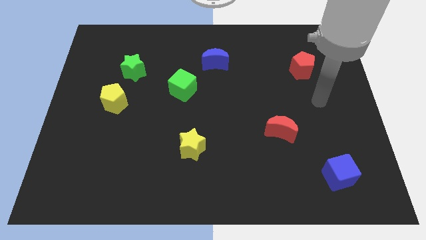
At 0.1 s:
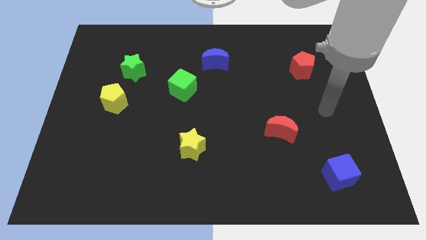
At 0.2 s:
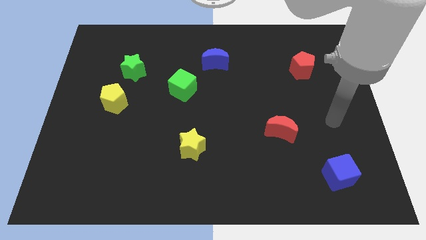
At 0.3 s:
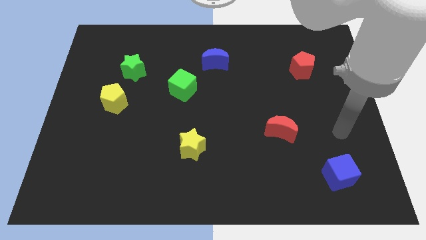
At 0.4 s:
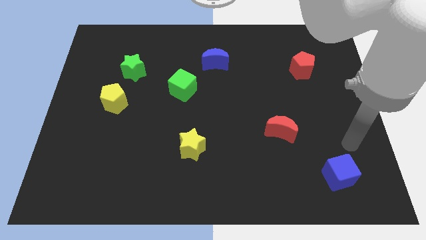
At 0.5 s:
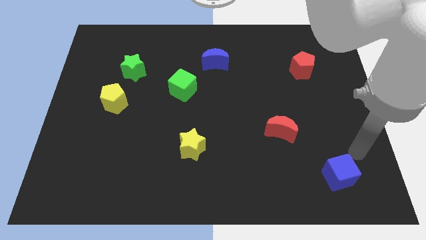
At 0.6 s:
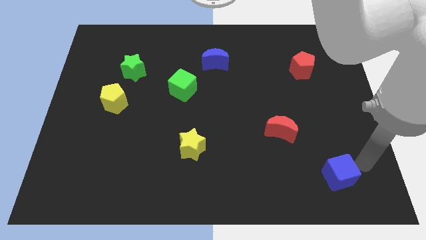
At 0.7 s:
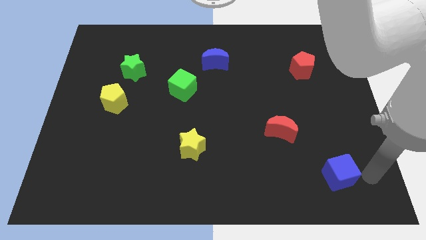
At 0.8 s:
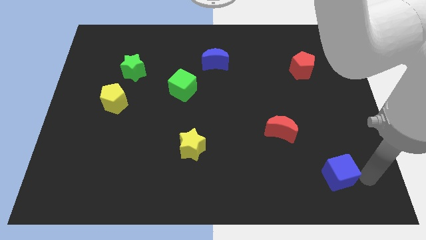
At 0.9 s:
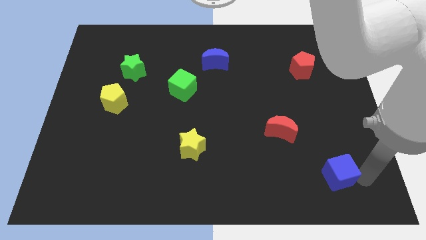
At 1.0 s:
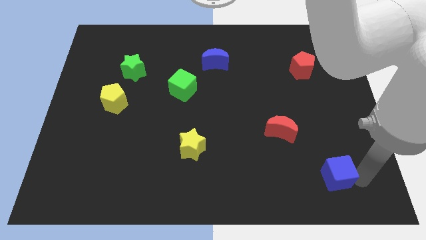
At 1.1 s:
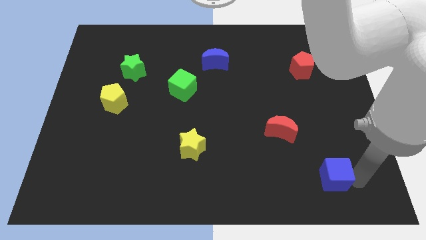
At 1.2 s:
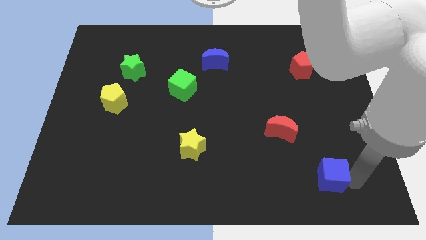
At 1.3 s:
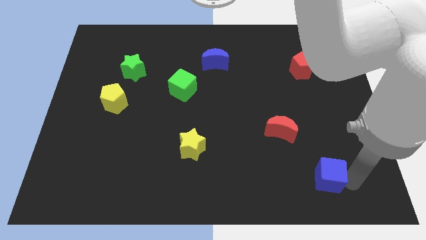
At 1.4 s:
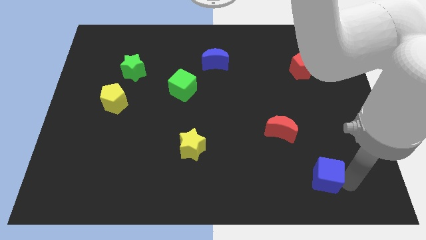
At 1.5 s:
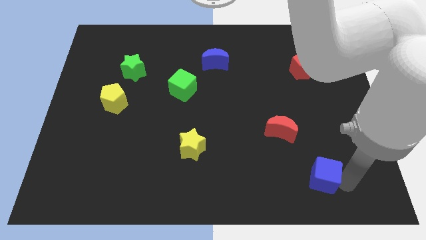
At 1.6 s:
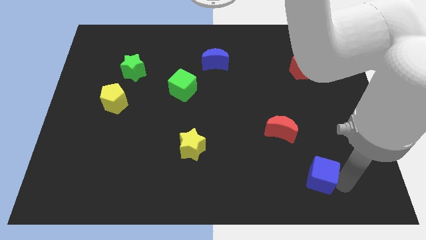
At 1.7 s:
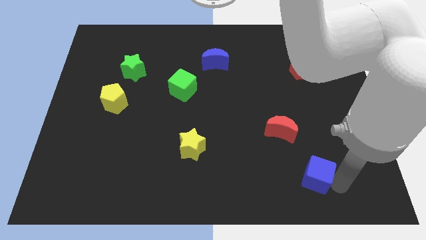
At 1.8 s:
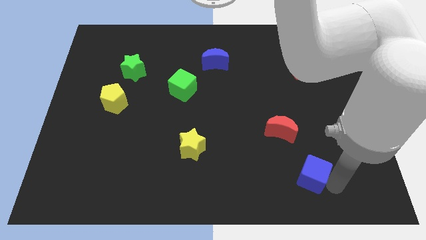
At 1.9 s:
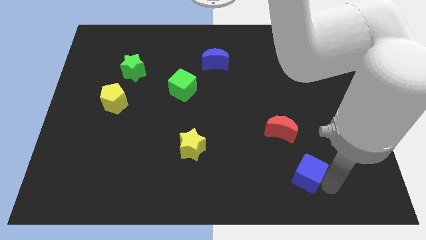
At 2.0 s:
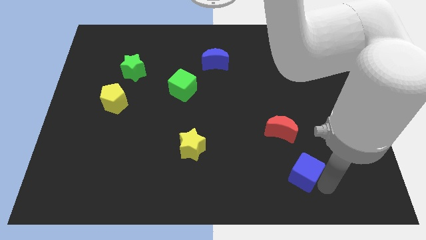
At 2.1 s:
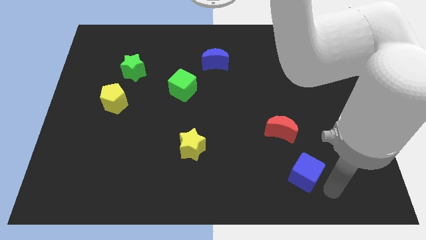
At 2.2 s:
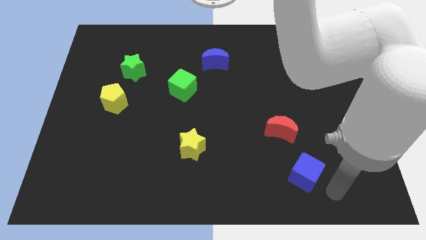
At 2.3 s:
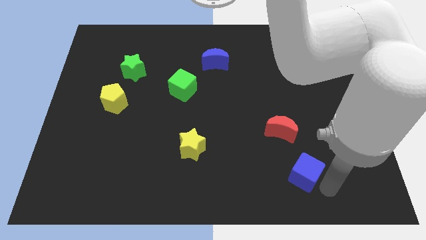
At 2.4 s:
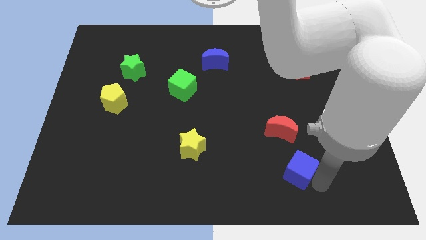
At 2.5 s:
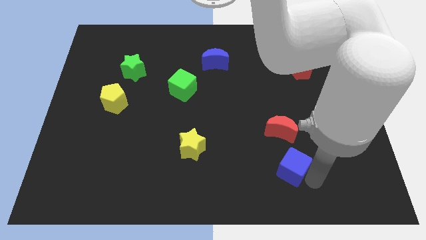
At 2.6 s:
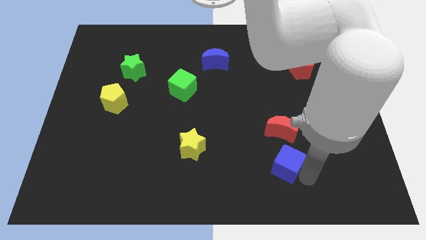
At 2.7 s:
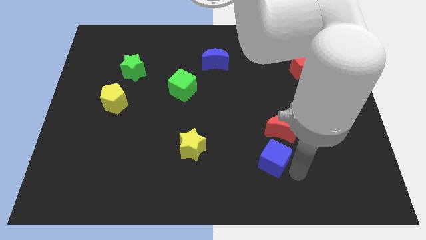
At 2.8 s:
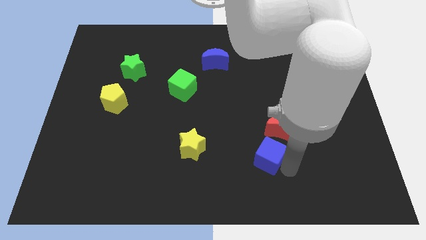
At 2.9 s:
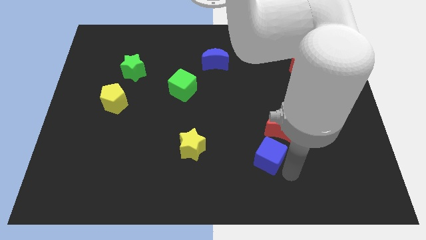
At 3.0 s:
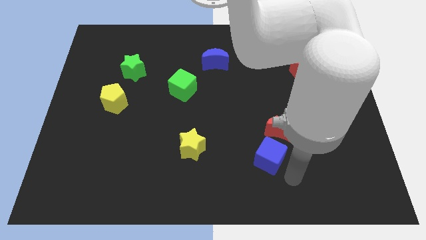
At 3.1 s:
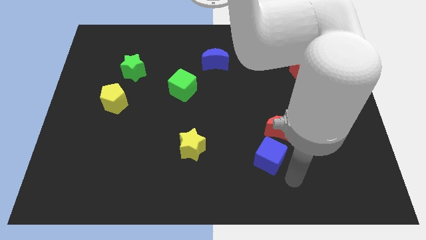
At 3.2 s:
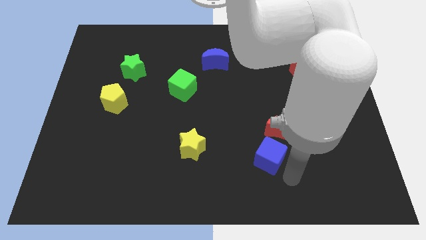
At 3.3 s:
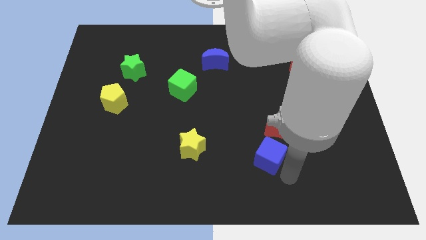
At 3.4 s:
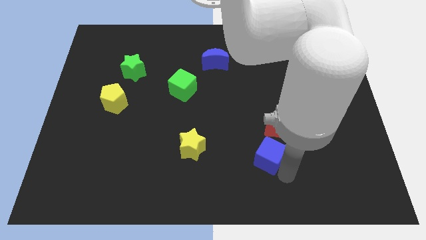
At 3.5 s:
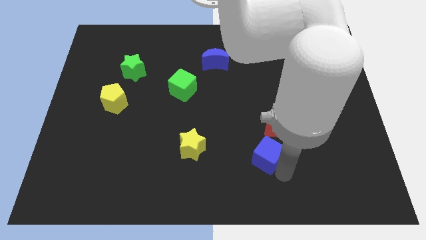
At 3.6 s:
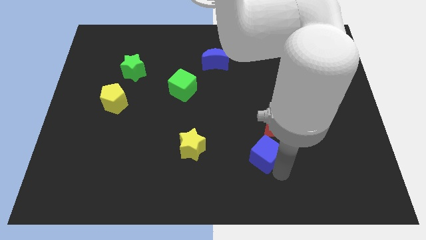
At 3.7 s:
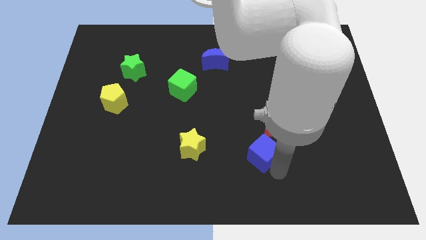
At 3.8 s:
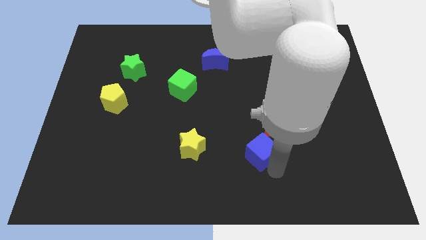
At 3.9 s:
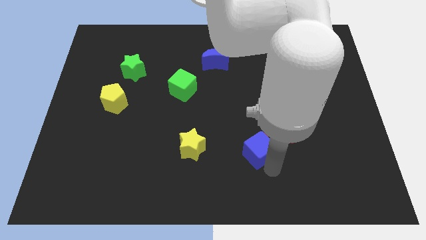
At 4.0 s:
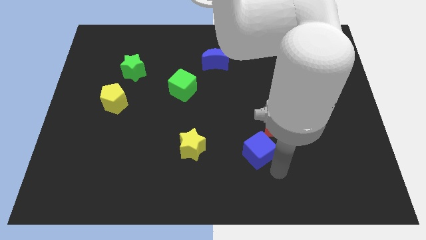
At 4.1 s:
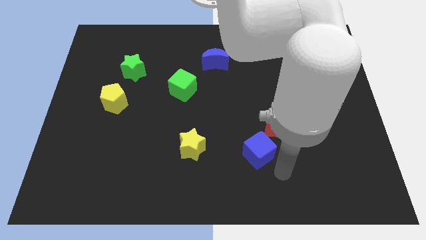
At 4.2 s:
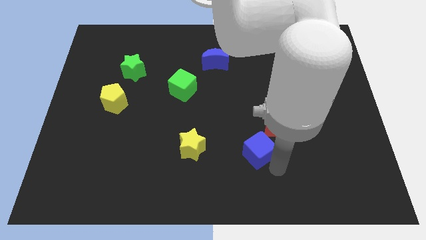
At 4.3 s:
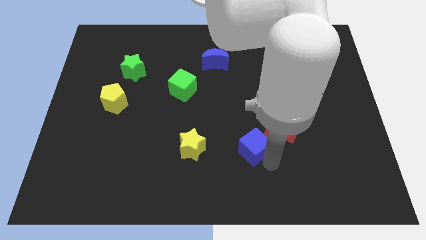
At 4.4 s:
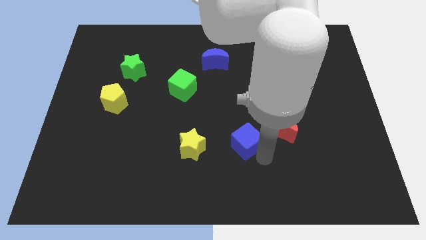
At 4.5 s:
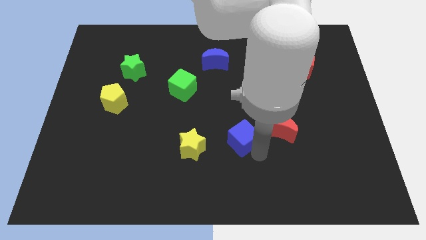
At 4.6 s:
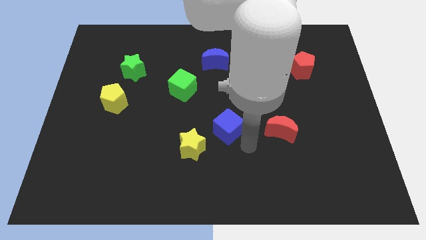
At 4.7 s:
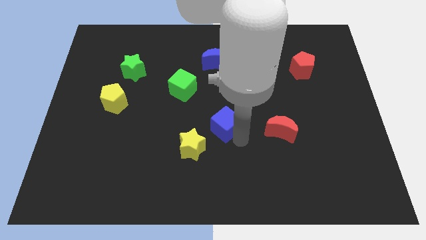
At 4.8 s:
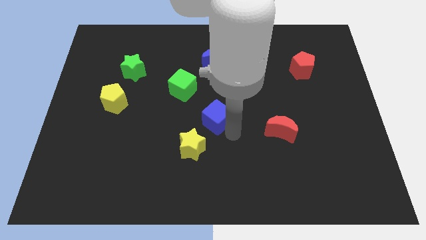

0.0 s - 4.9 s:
put the blue cube to the bottom right of the green cube

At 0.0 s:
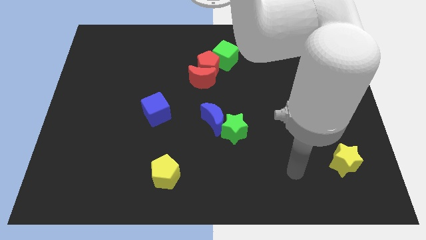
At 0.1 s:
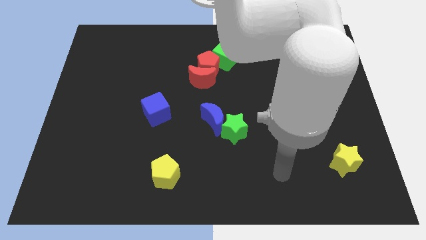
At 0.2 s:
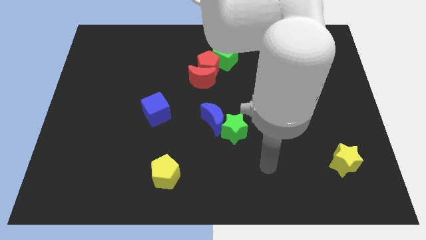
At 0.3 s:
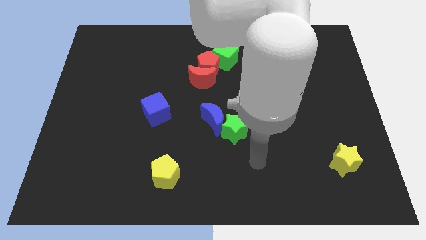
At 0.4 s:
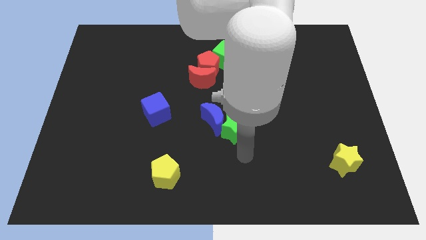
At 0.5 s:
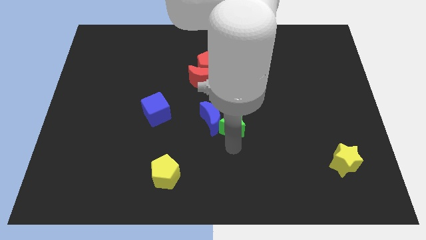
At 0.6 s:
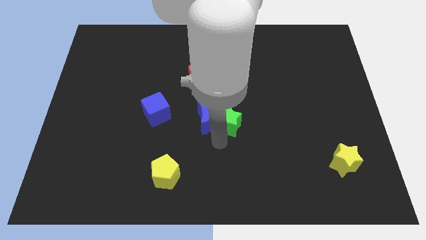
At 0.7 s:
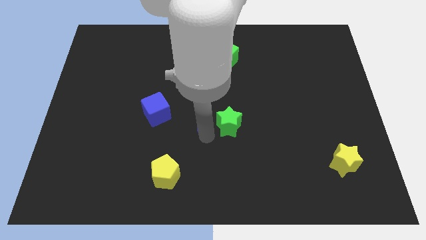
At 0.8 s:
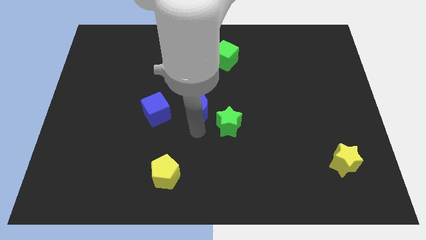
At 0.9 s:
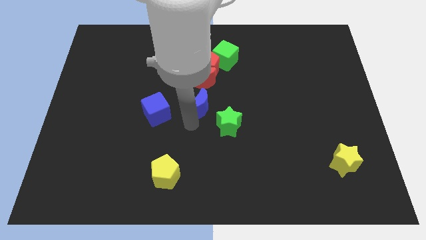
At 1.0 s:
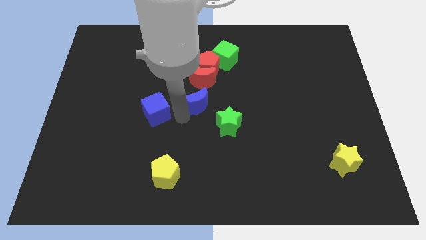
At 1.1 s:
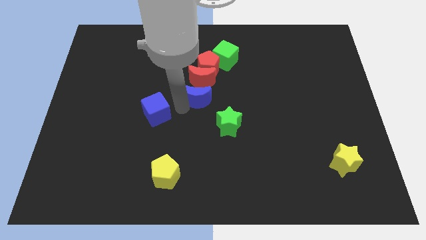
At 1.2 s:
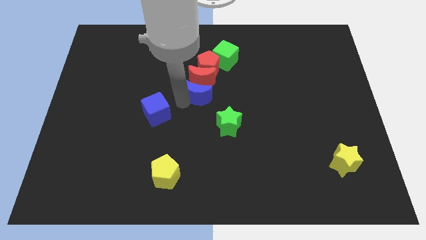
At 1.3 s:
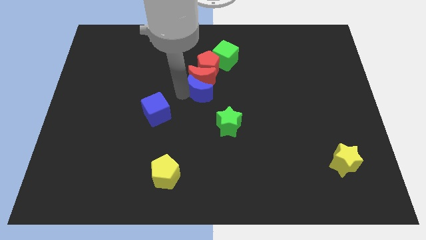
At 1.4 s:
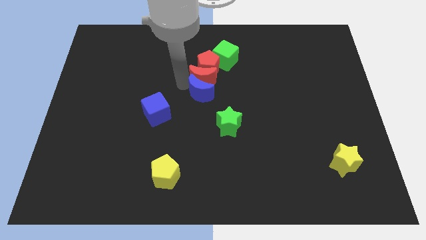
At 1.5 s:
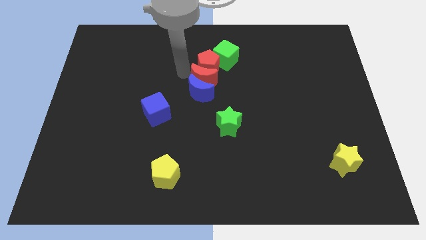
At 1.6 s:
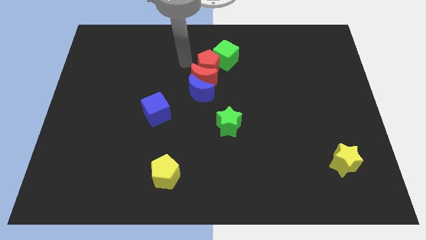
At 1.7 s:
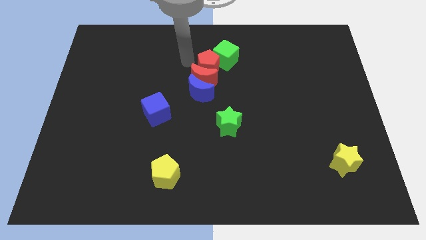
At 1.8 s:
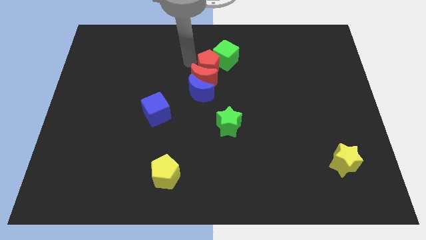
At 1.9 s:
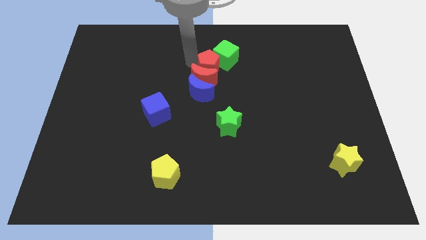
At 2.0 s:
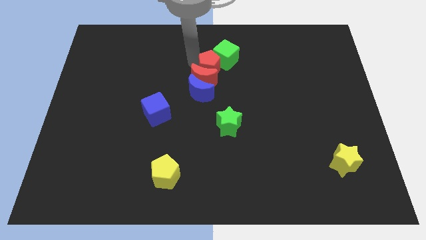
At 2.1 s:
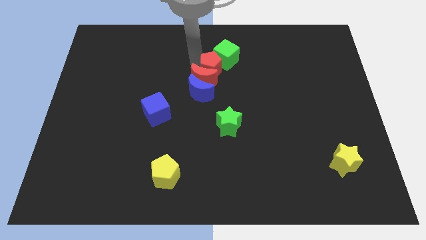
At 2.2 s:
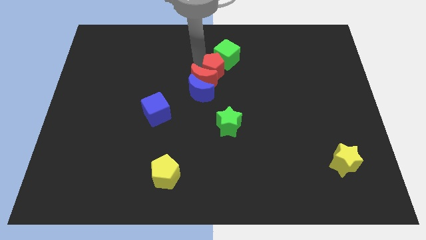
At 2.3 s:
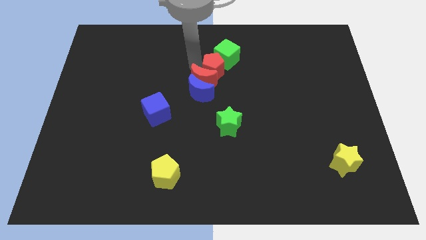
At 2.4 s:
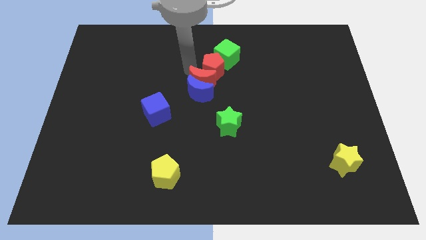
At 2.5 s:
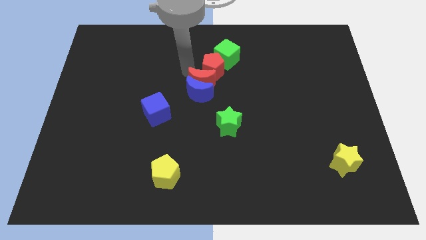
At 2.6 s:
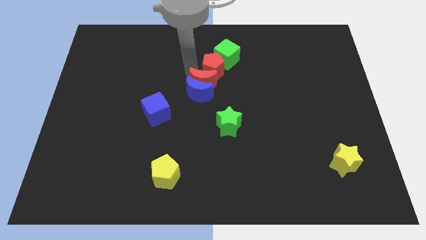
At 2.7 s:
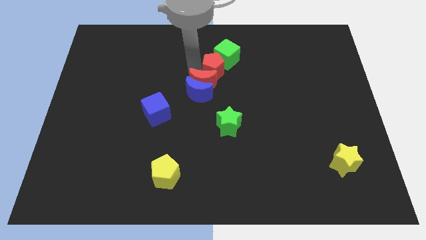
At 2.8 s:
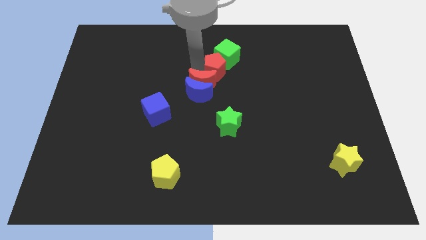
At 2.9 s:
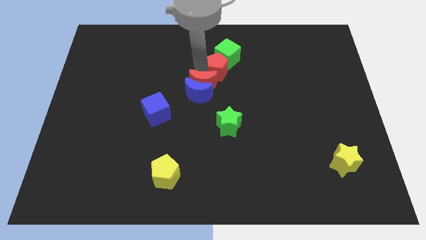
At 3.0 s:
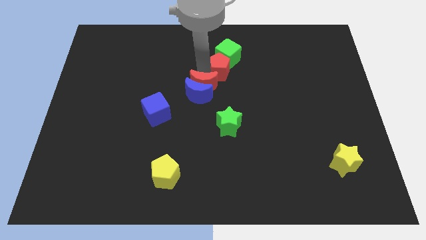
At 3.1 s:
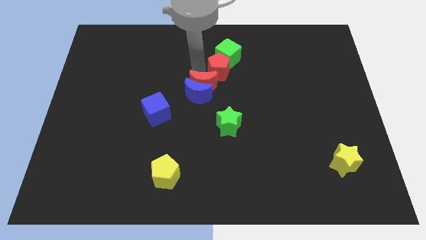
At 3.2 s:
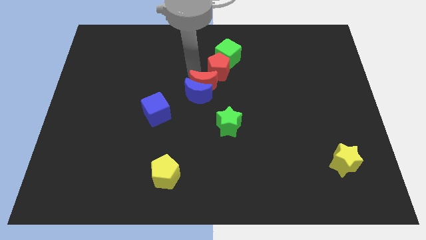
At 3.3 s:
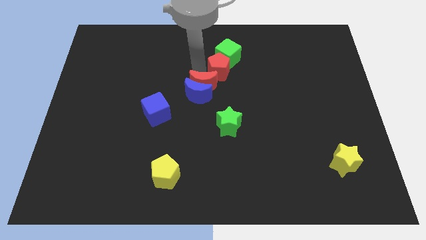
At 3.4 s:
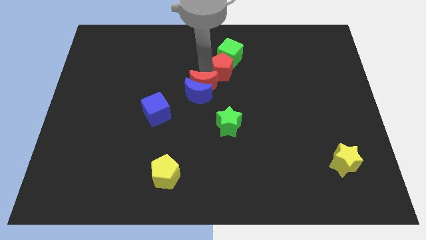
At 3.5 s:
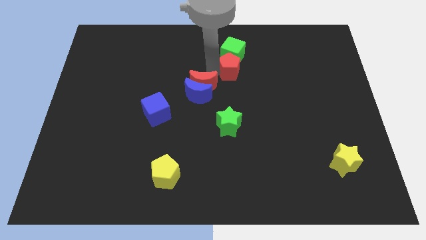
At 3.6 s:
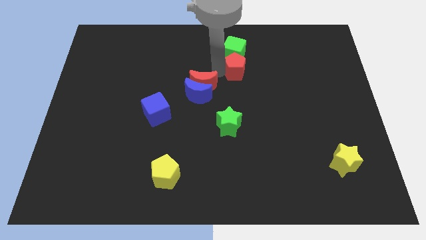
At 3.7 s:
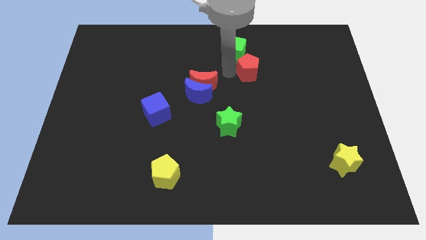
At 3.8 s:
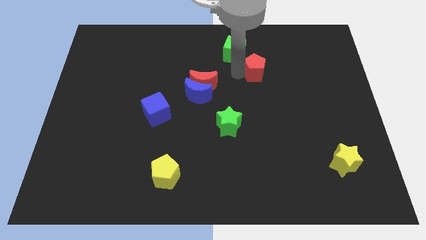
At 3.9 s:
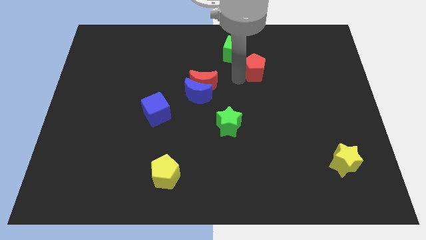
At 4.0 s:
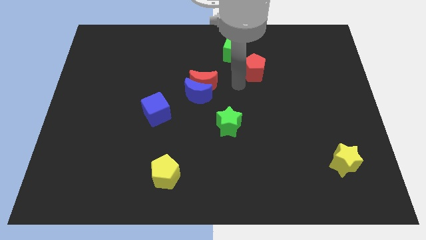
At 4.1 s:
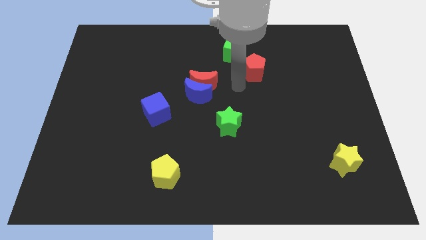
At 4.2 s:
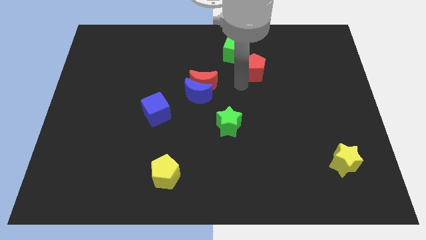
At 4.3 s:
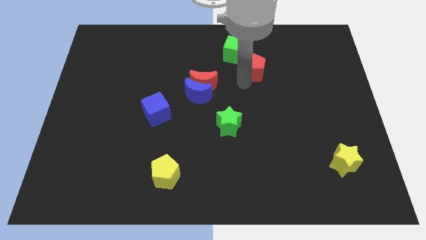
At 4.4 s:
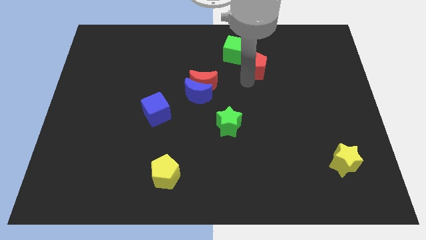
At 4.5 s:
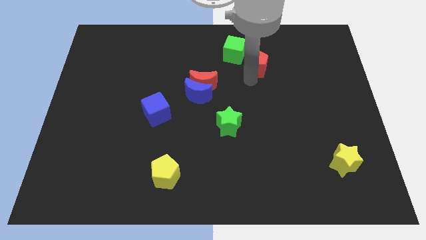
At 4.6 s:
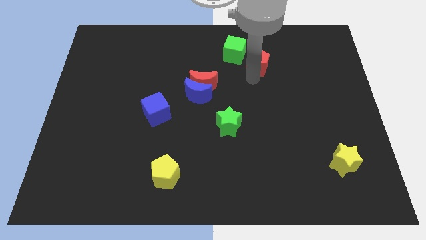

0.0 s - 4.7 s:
move the red pentagon just right of the green cube
